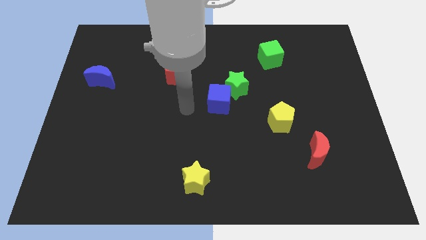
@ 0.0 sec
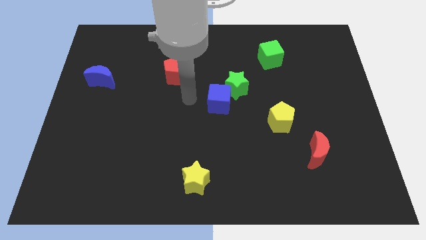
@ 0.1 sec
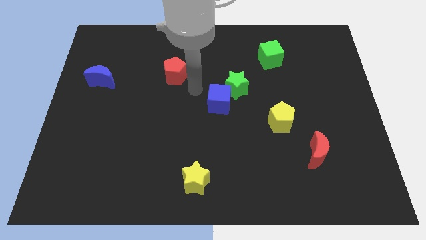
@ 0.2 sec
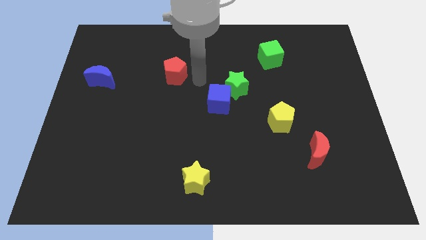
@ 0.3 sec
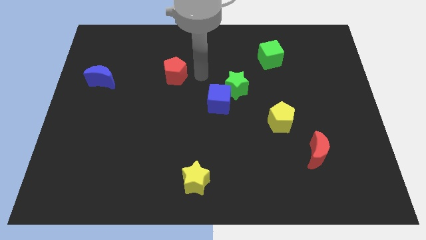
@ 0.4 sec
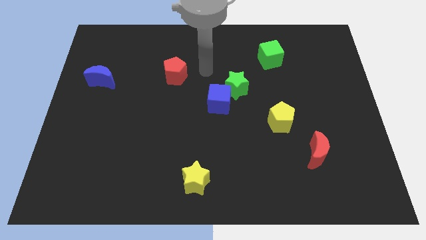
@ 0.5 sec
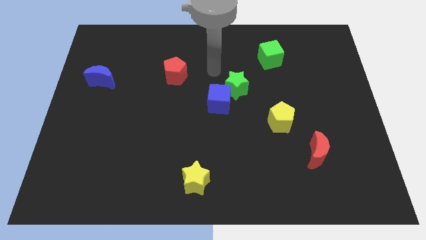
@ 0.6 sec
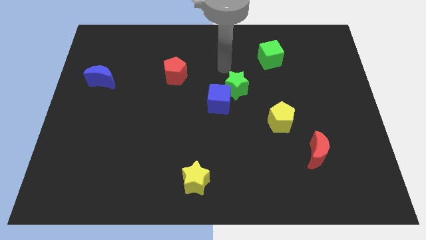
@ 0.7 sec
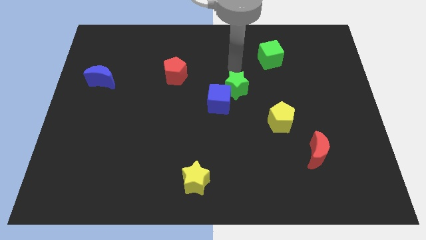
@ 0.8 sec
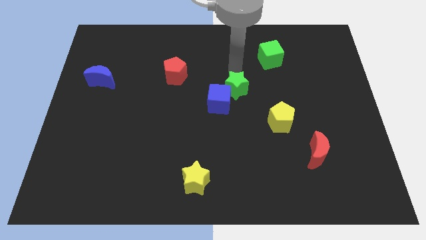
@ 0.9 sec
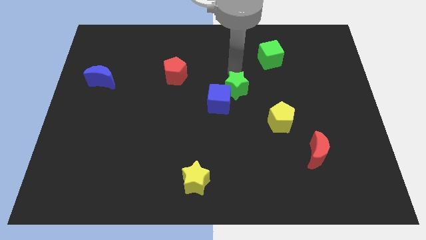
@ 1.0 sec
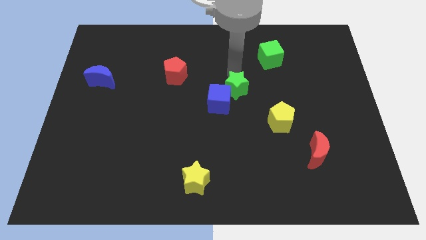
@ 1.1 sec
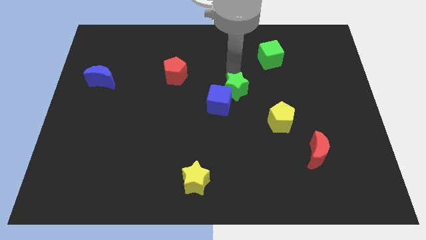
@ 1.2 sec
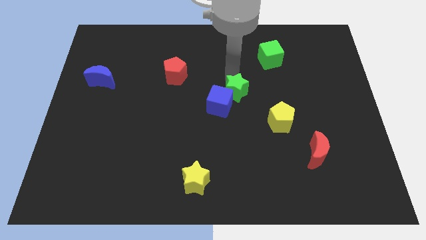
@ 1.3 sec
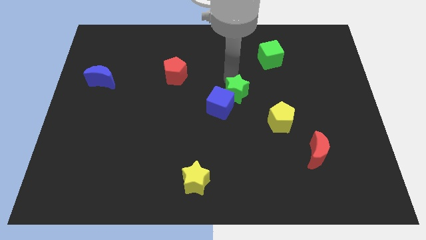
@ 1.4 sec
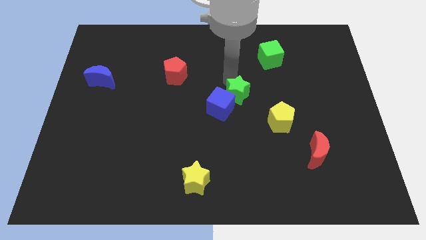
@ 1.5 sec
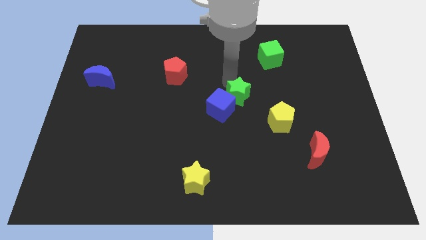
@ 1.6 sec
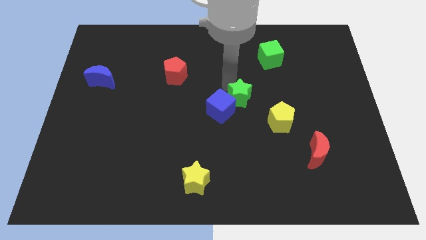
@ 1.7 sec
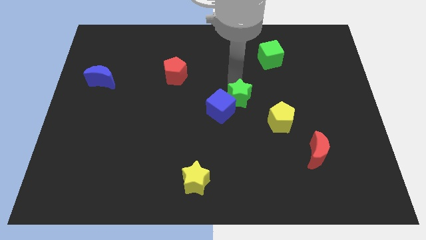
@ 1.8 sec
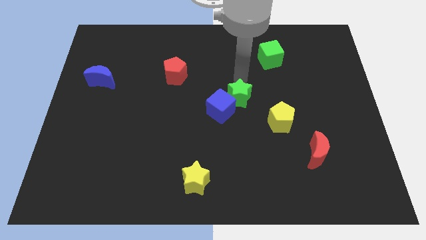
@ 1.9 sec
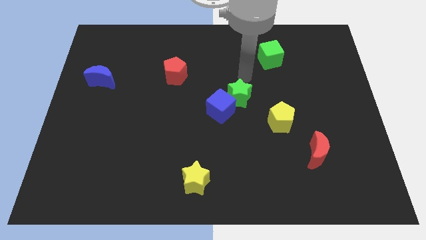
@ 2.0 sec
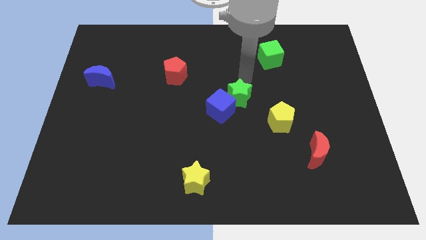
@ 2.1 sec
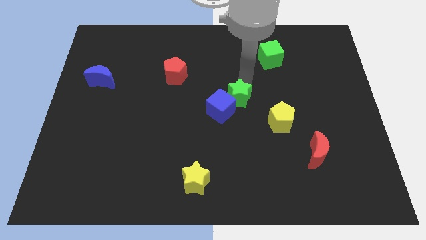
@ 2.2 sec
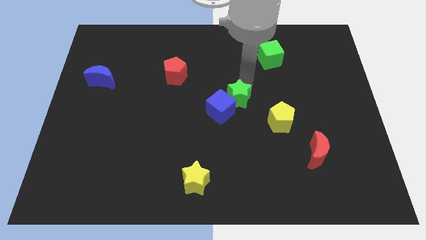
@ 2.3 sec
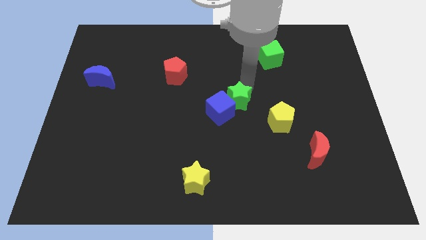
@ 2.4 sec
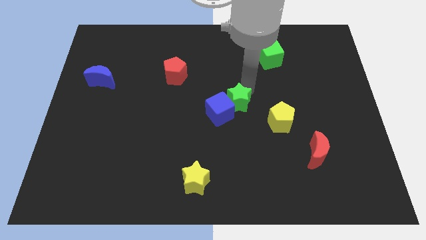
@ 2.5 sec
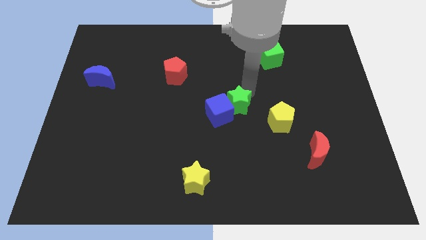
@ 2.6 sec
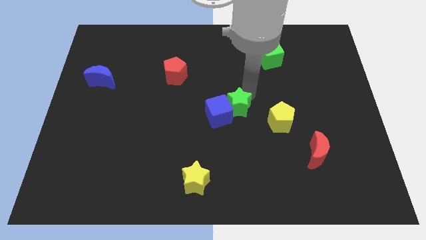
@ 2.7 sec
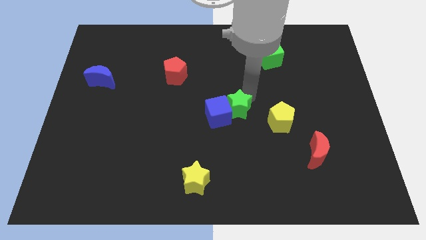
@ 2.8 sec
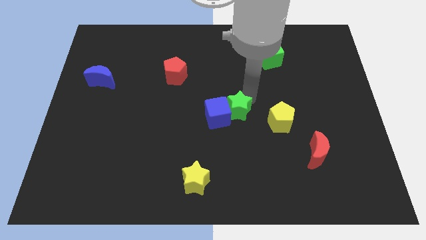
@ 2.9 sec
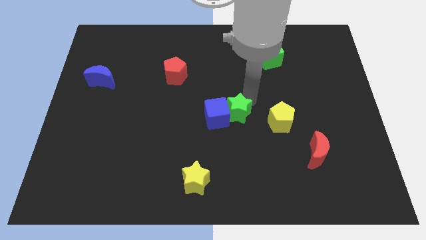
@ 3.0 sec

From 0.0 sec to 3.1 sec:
push the green star downwards somewhat

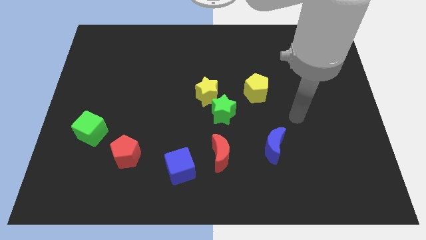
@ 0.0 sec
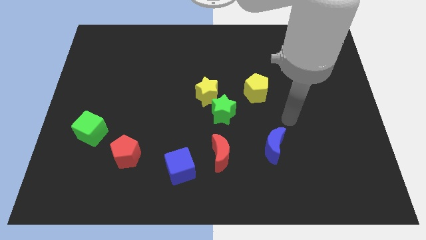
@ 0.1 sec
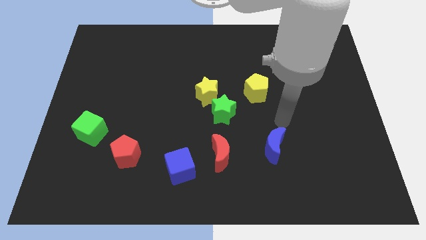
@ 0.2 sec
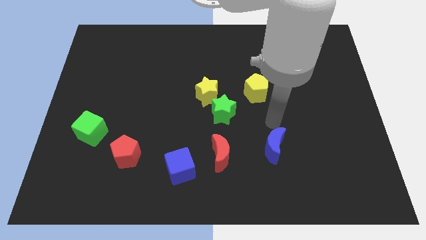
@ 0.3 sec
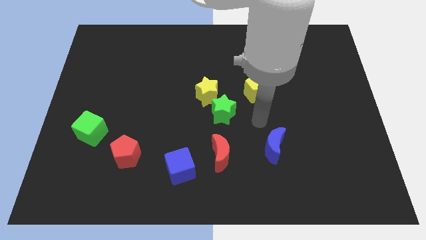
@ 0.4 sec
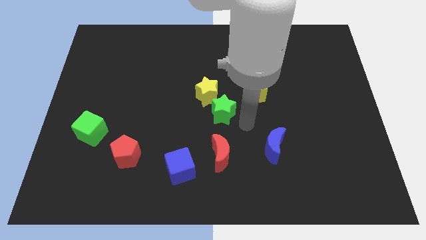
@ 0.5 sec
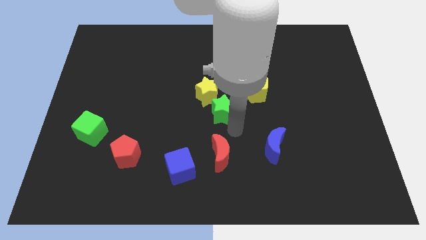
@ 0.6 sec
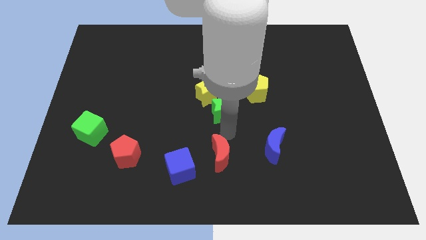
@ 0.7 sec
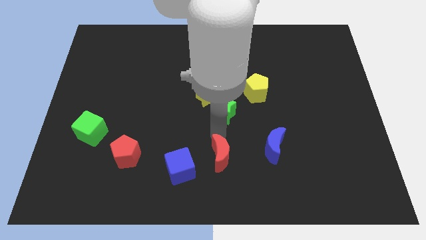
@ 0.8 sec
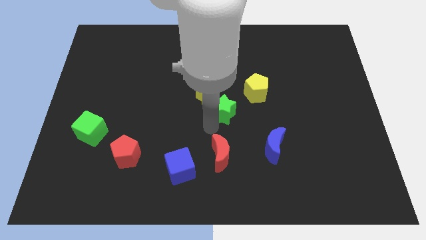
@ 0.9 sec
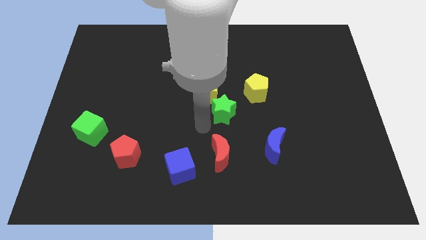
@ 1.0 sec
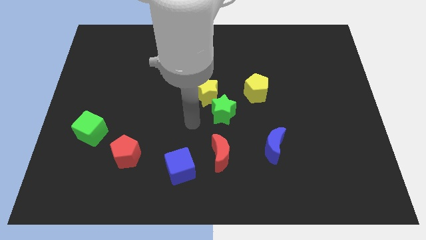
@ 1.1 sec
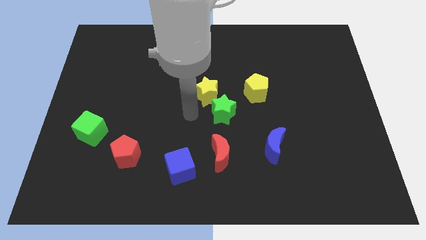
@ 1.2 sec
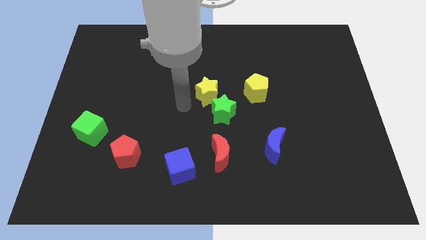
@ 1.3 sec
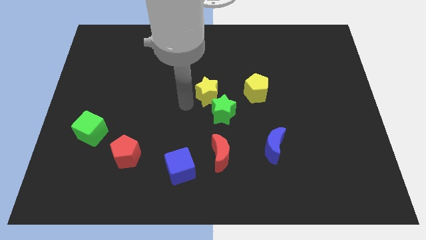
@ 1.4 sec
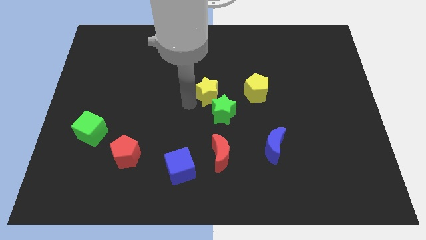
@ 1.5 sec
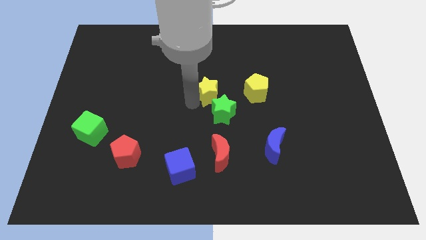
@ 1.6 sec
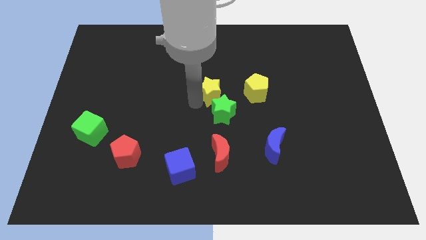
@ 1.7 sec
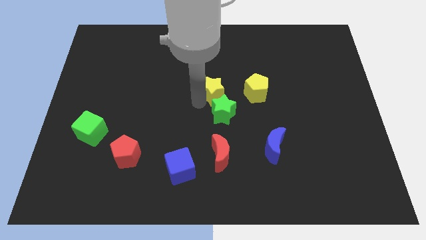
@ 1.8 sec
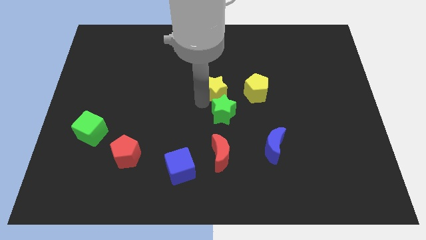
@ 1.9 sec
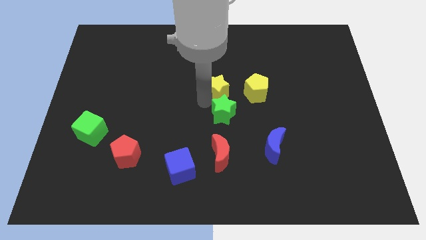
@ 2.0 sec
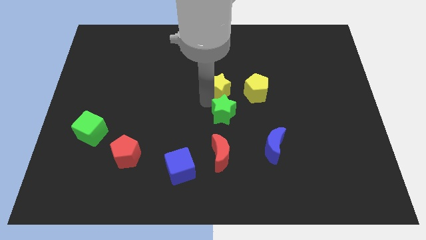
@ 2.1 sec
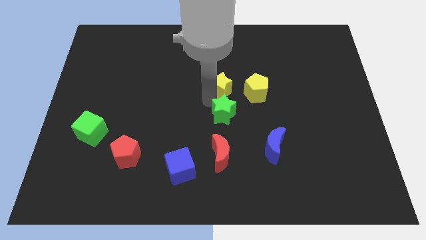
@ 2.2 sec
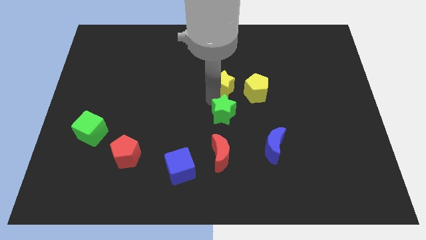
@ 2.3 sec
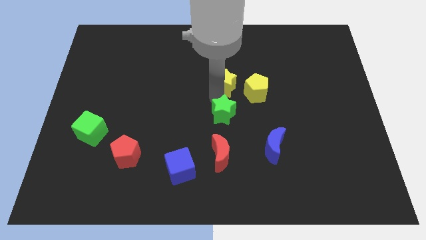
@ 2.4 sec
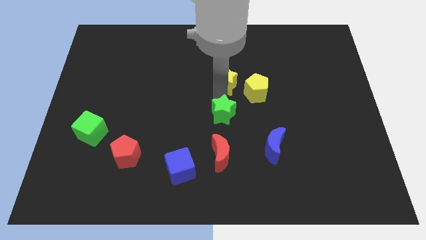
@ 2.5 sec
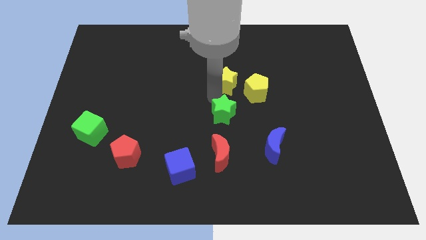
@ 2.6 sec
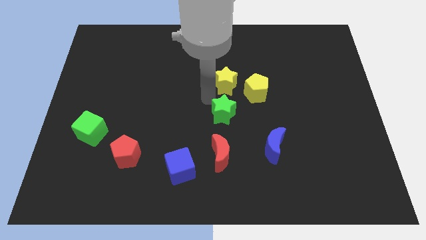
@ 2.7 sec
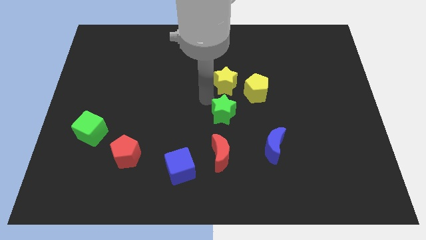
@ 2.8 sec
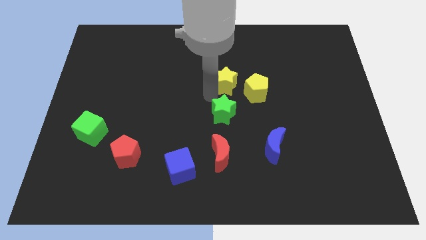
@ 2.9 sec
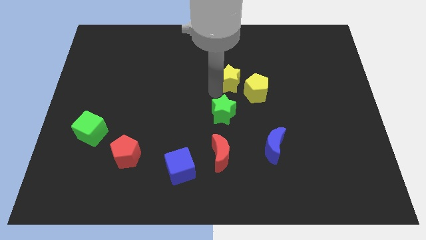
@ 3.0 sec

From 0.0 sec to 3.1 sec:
push the yellow star somewhat diagonally upwards and right

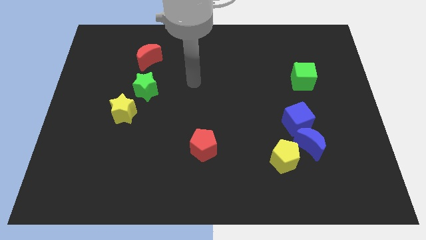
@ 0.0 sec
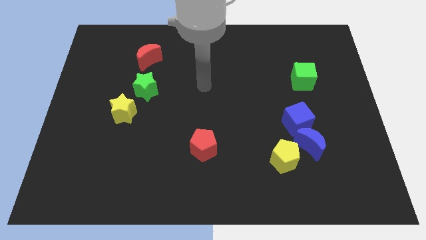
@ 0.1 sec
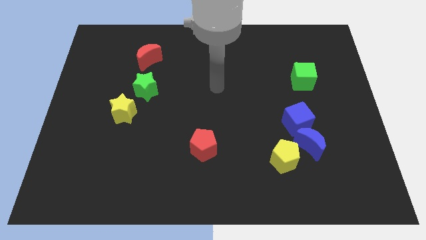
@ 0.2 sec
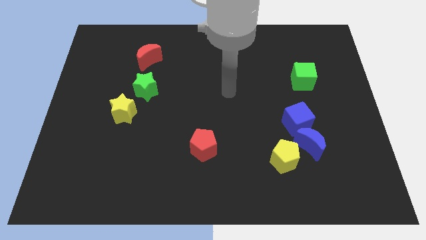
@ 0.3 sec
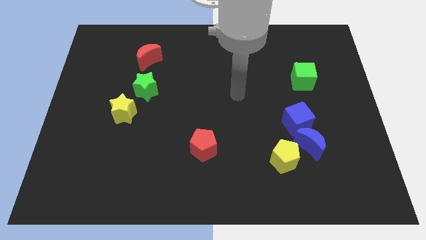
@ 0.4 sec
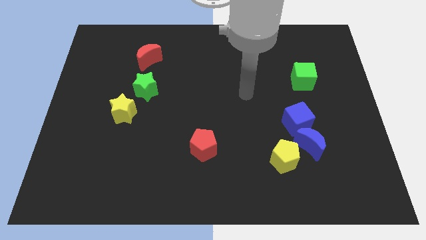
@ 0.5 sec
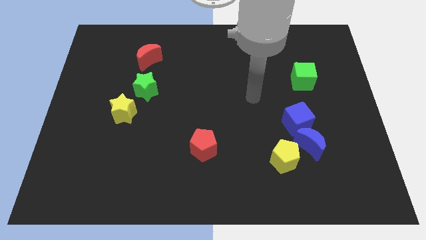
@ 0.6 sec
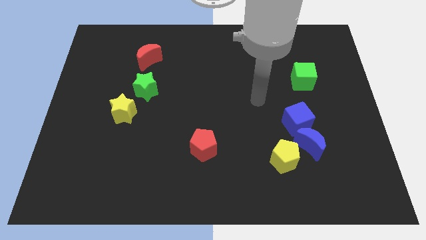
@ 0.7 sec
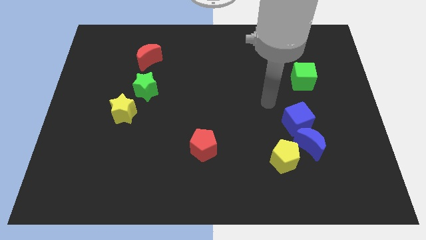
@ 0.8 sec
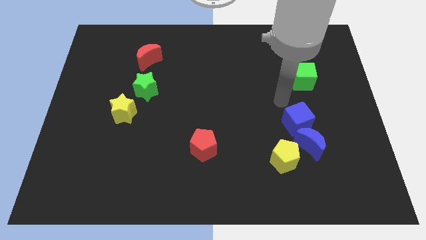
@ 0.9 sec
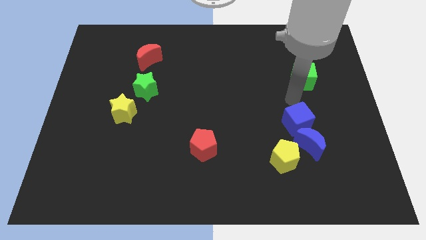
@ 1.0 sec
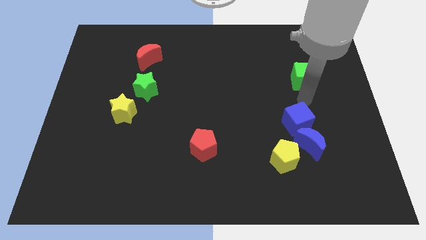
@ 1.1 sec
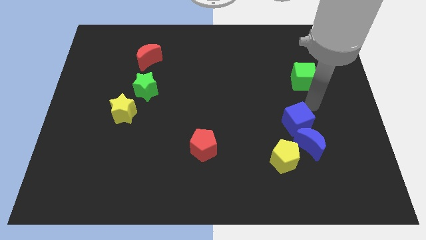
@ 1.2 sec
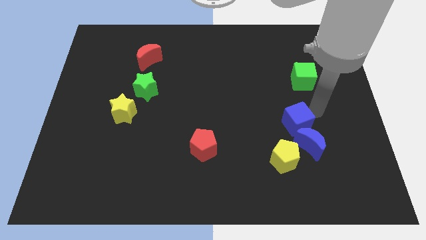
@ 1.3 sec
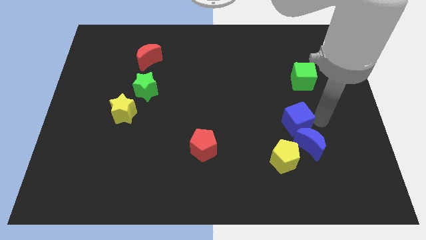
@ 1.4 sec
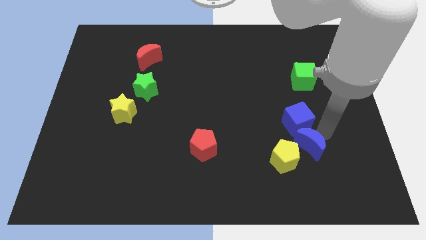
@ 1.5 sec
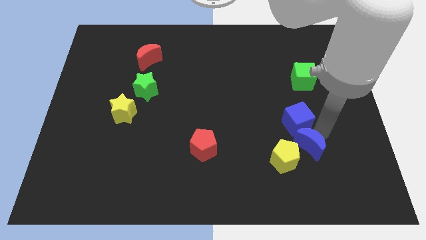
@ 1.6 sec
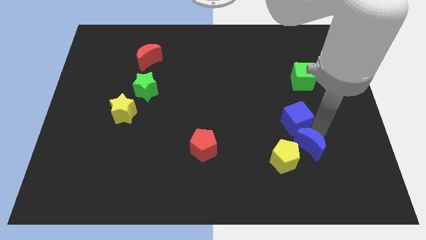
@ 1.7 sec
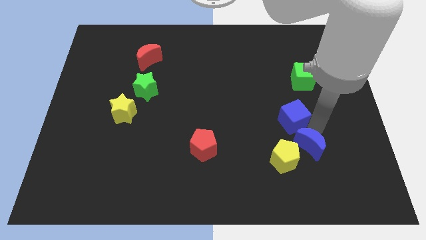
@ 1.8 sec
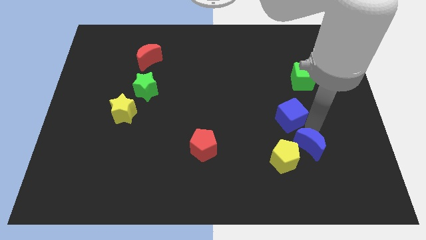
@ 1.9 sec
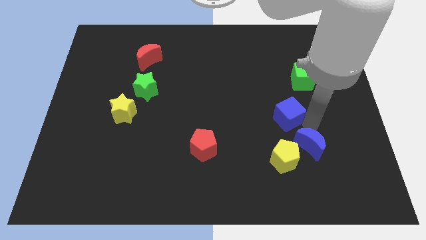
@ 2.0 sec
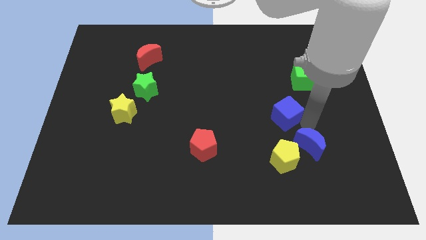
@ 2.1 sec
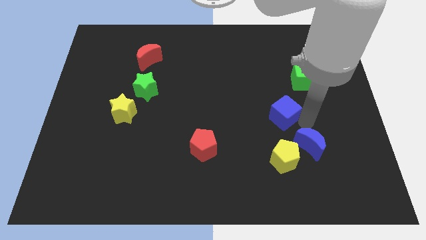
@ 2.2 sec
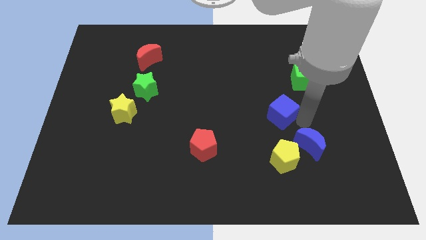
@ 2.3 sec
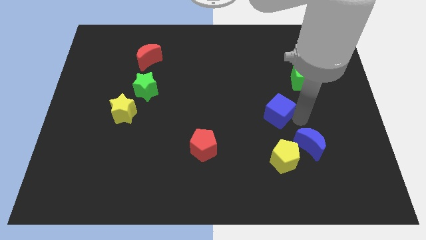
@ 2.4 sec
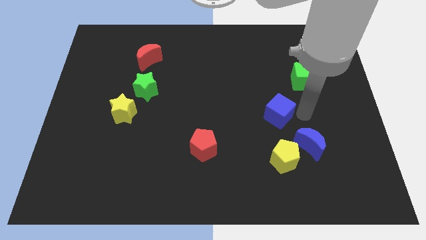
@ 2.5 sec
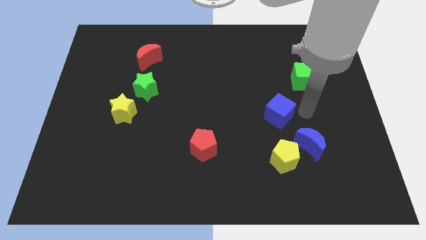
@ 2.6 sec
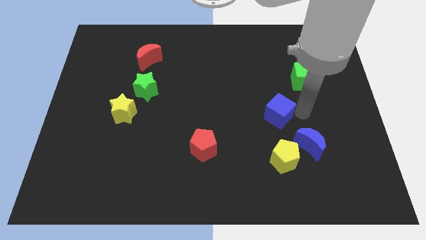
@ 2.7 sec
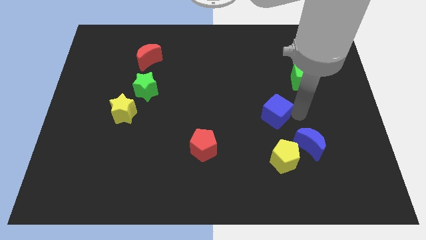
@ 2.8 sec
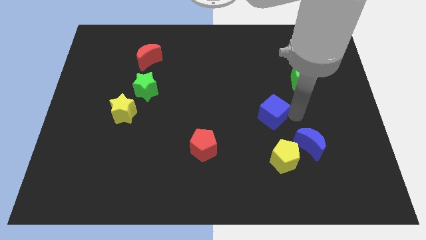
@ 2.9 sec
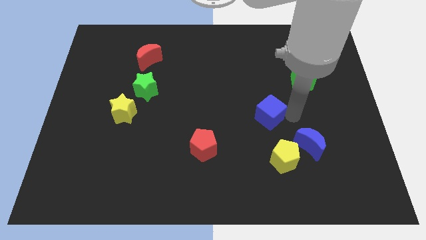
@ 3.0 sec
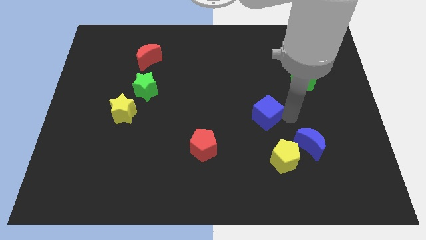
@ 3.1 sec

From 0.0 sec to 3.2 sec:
slightly slide the blue cube to the left
